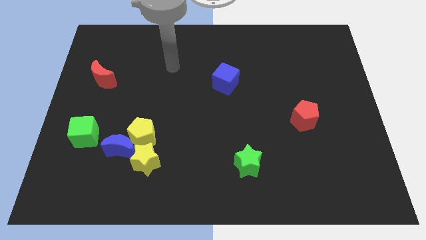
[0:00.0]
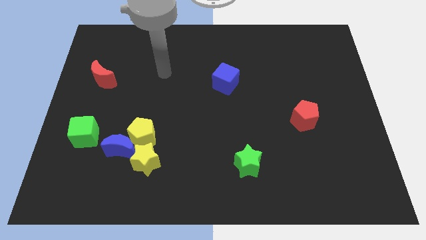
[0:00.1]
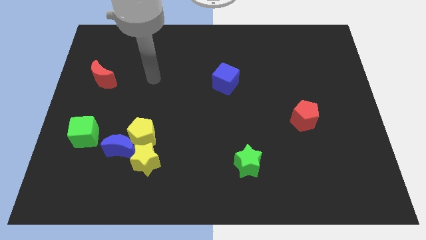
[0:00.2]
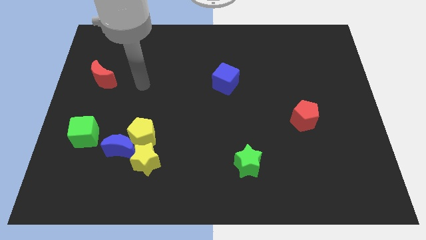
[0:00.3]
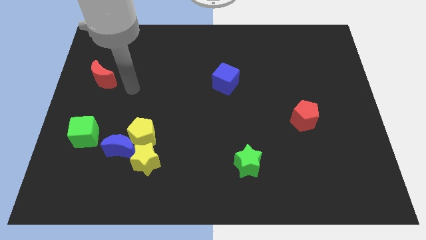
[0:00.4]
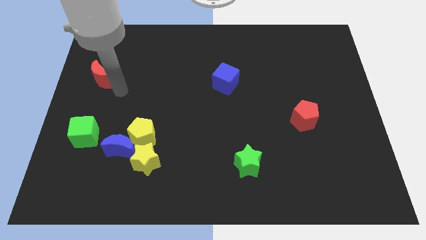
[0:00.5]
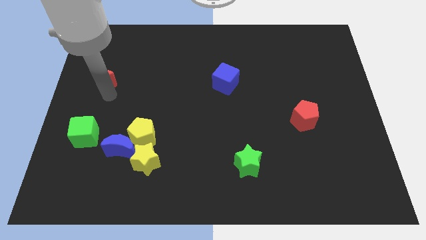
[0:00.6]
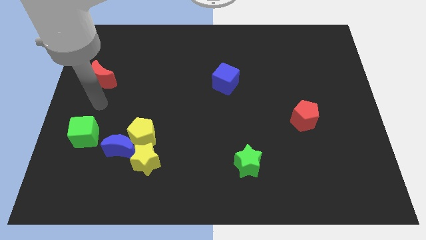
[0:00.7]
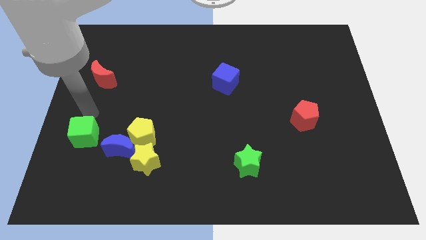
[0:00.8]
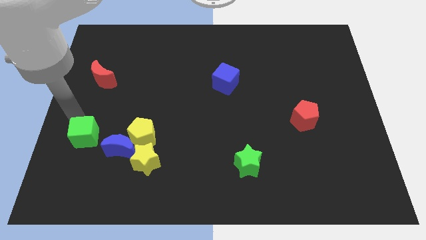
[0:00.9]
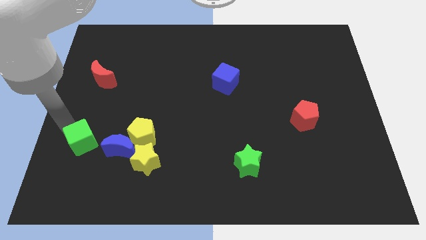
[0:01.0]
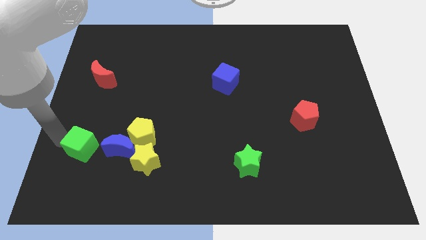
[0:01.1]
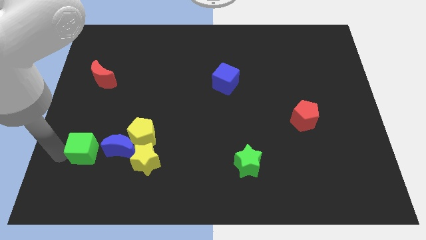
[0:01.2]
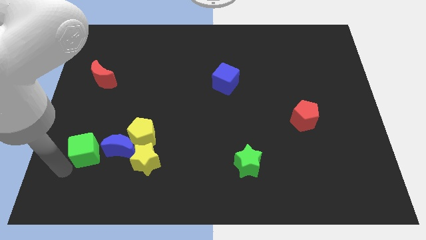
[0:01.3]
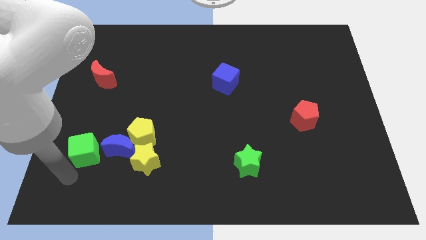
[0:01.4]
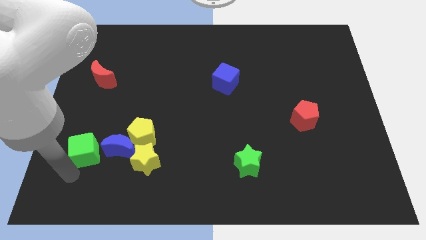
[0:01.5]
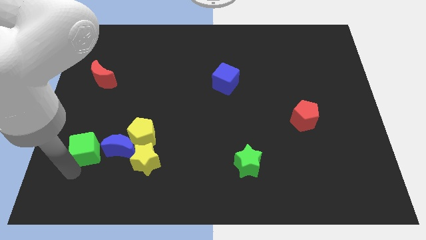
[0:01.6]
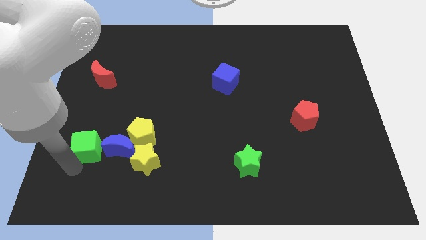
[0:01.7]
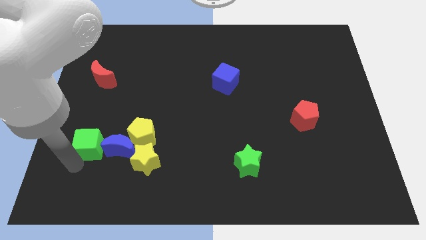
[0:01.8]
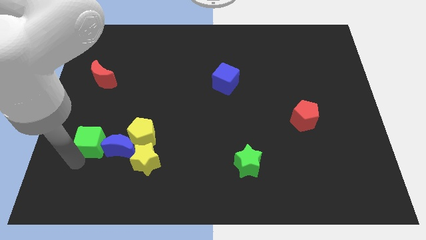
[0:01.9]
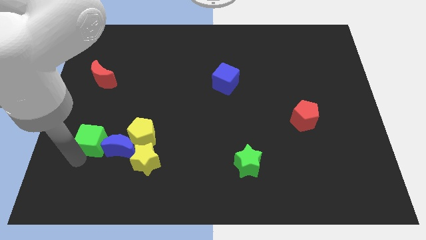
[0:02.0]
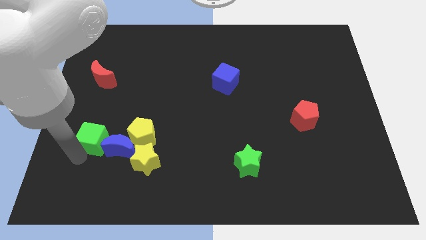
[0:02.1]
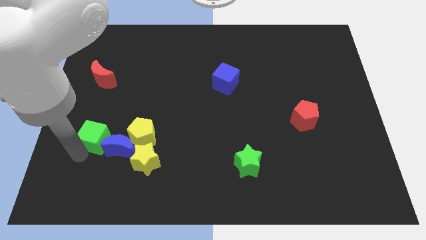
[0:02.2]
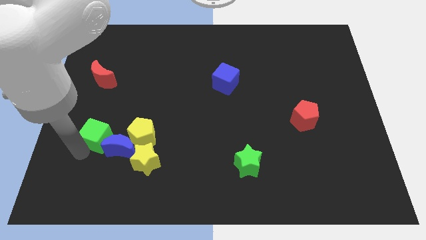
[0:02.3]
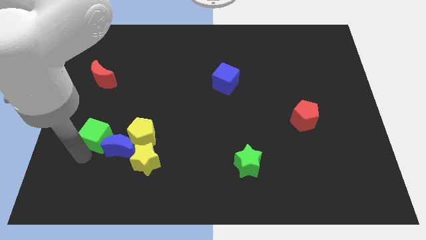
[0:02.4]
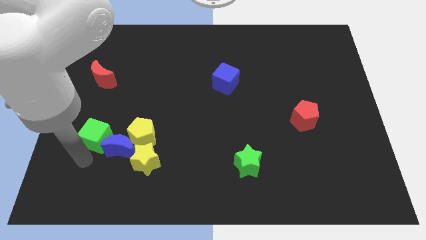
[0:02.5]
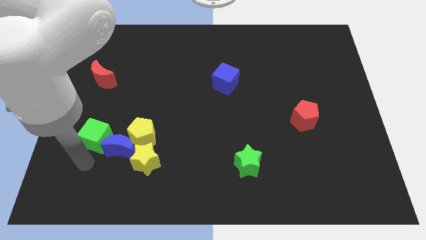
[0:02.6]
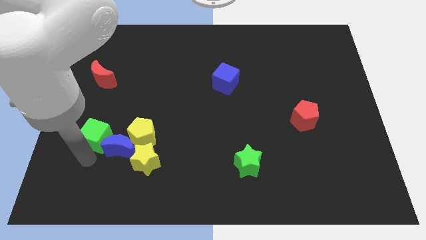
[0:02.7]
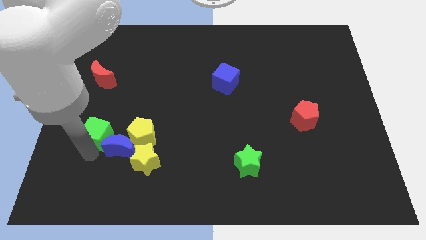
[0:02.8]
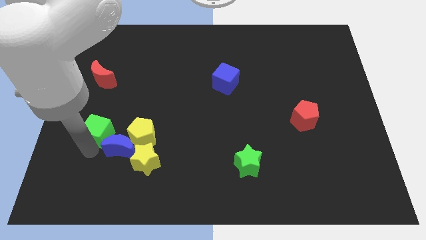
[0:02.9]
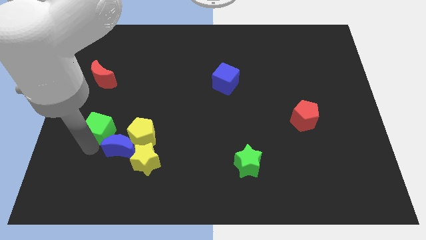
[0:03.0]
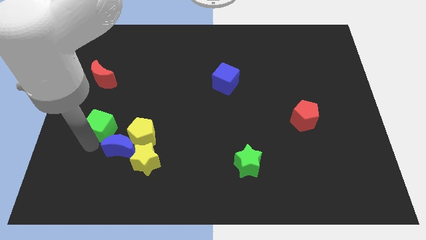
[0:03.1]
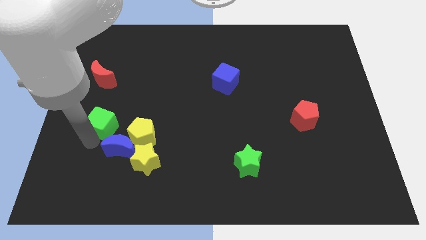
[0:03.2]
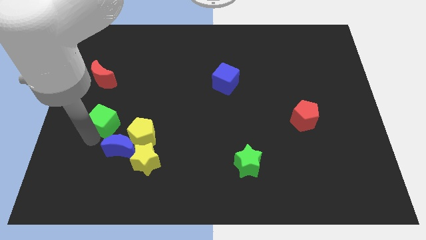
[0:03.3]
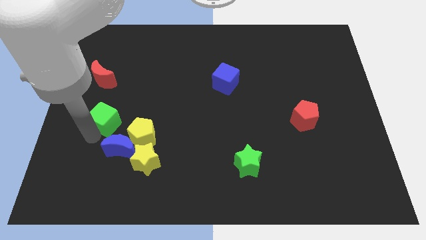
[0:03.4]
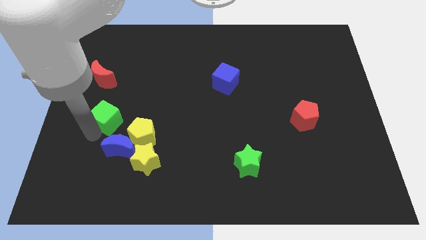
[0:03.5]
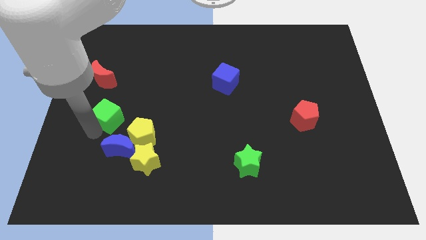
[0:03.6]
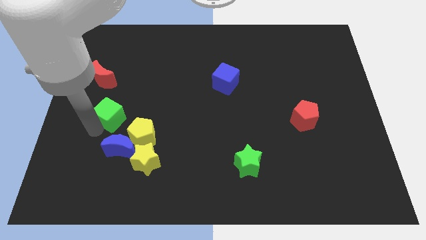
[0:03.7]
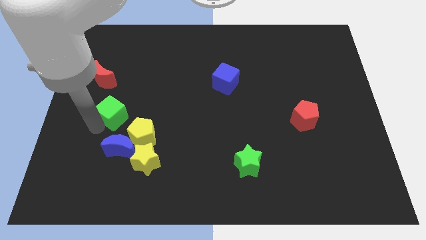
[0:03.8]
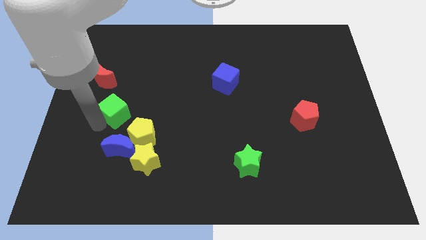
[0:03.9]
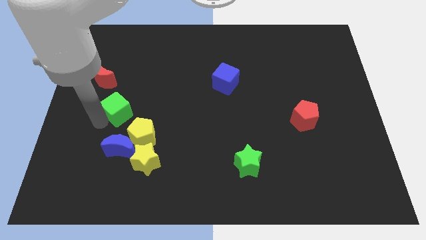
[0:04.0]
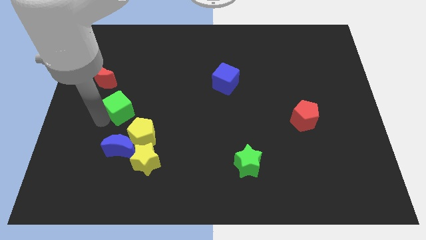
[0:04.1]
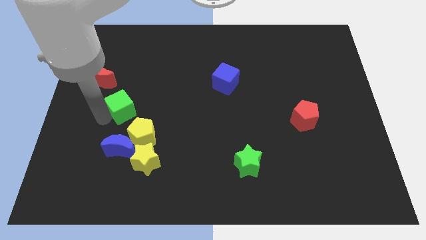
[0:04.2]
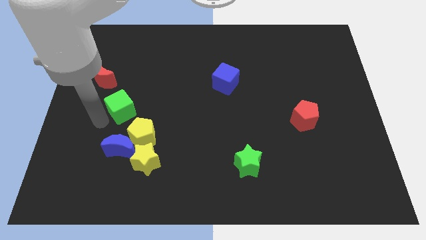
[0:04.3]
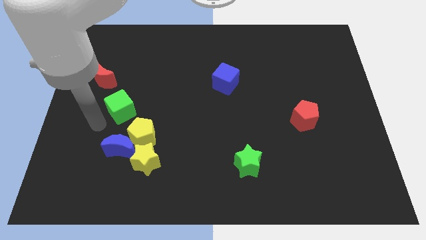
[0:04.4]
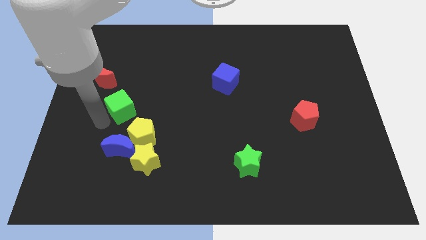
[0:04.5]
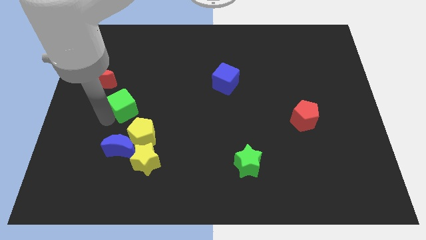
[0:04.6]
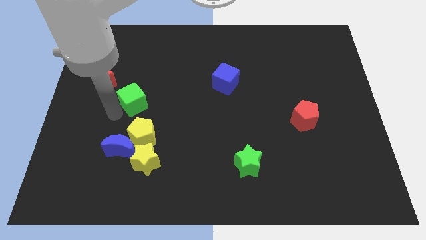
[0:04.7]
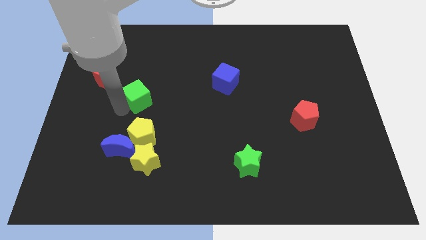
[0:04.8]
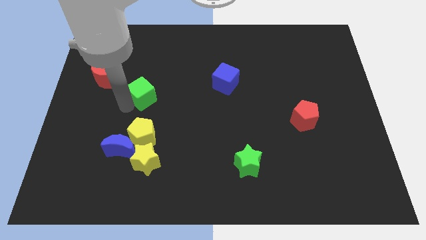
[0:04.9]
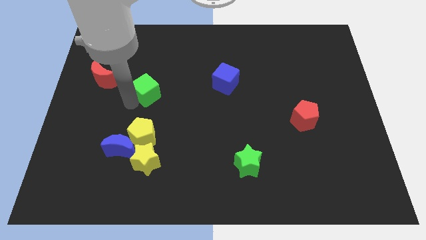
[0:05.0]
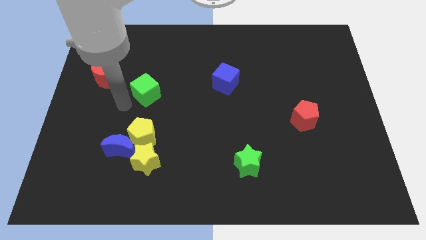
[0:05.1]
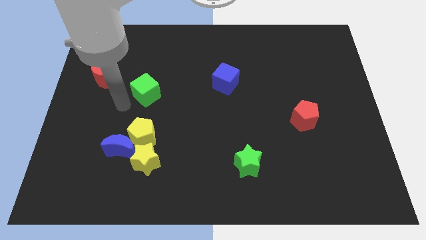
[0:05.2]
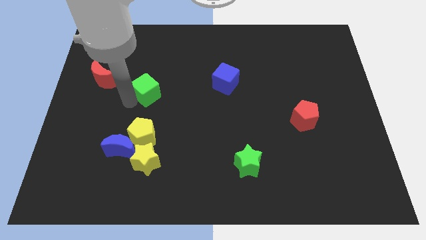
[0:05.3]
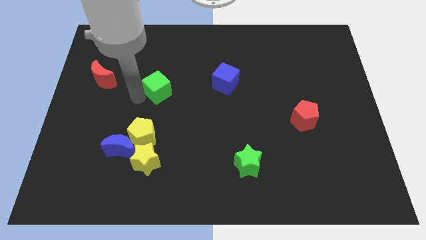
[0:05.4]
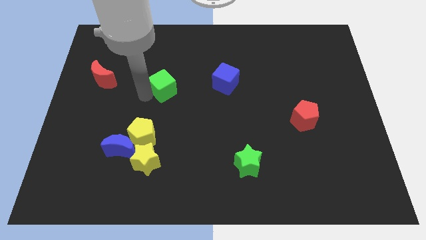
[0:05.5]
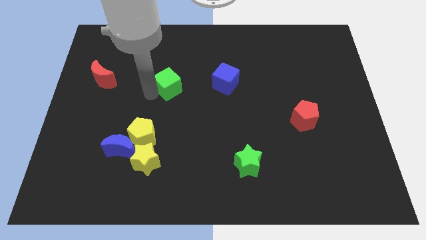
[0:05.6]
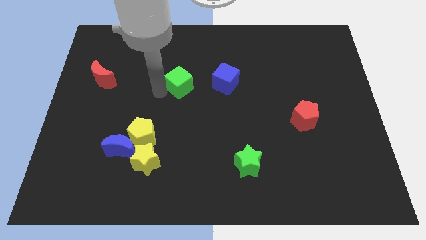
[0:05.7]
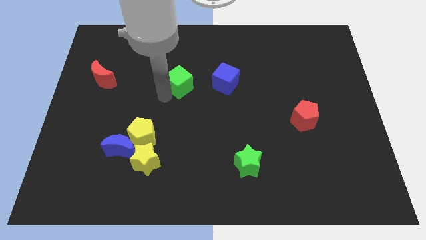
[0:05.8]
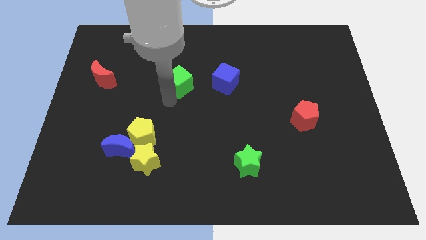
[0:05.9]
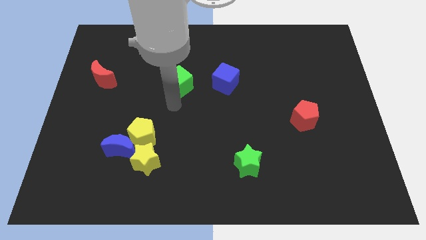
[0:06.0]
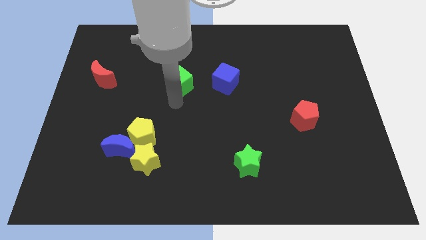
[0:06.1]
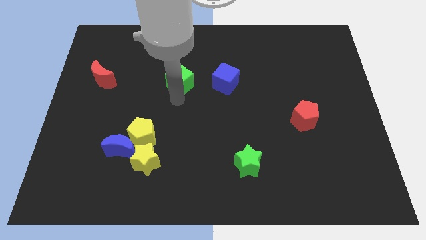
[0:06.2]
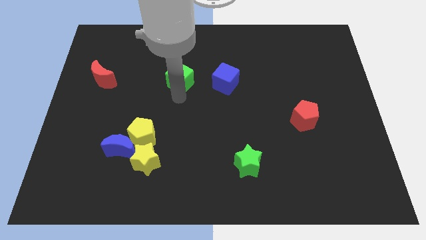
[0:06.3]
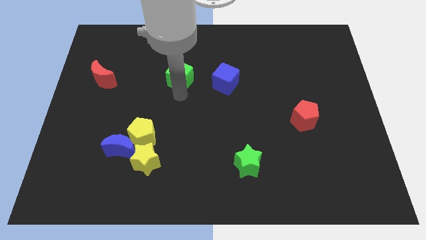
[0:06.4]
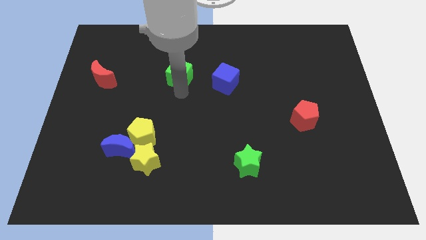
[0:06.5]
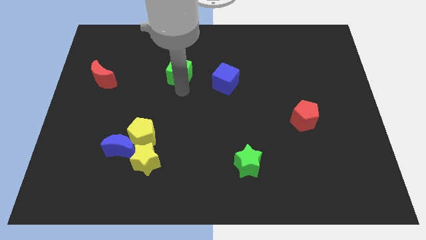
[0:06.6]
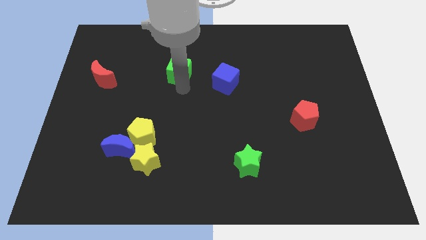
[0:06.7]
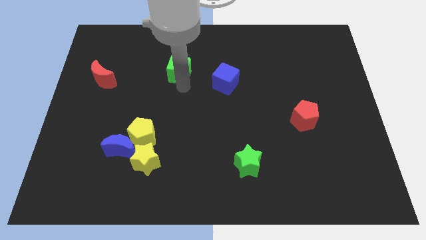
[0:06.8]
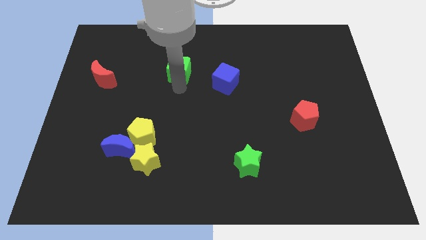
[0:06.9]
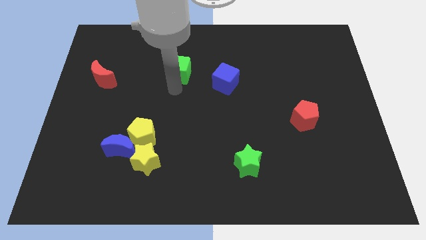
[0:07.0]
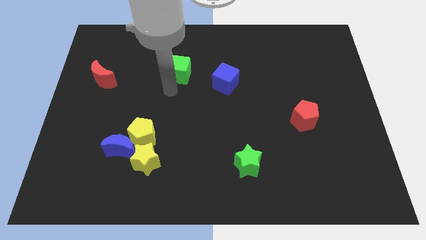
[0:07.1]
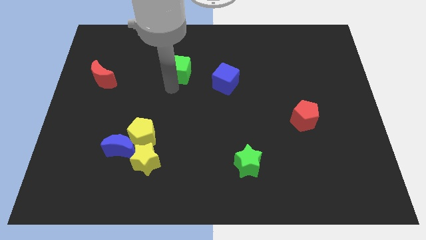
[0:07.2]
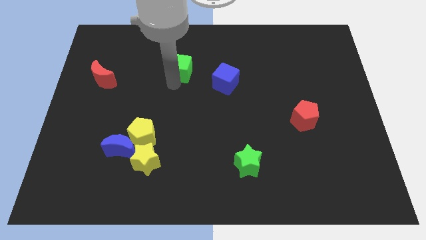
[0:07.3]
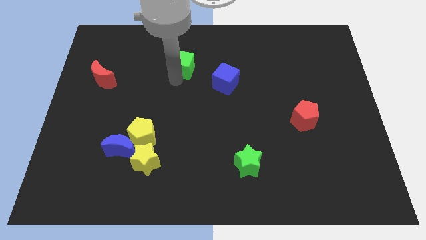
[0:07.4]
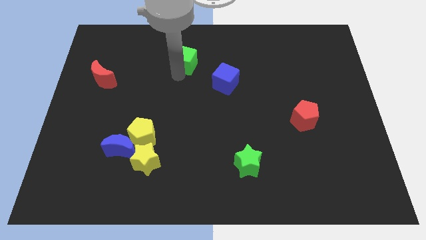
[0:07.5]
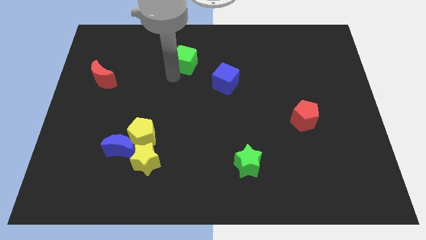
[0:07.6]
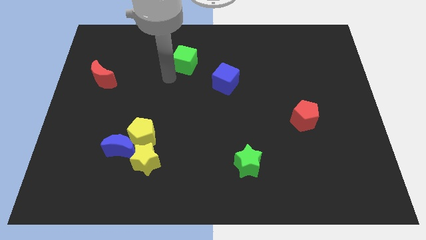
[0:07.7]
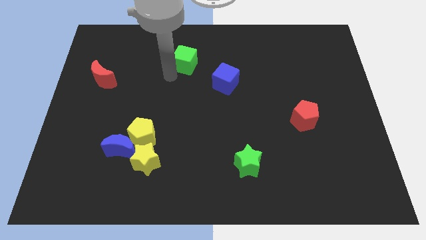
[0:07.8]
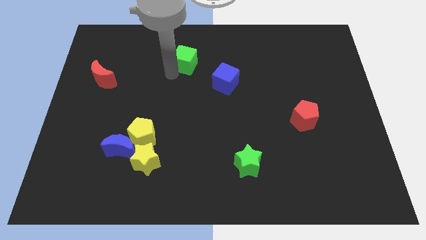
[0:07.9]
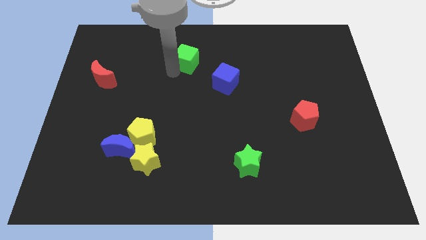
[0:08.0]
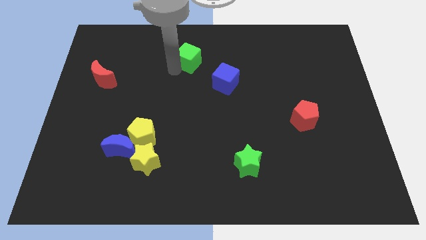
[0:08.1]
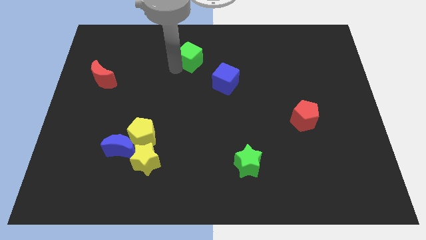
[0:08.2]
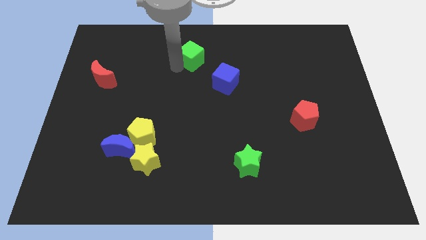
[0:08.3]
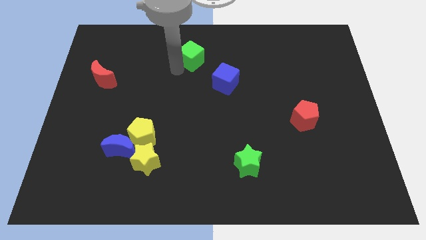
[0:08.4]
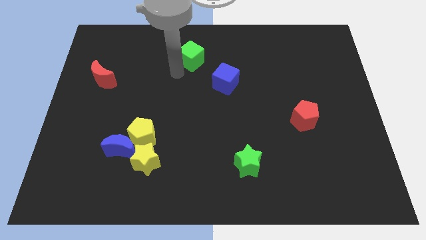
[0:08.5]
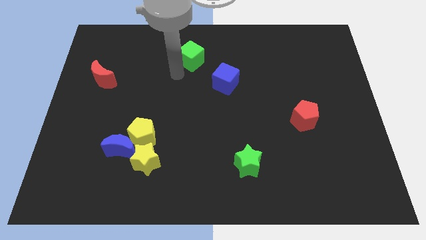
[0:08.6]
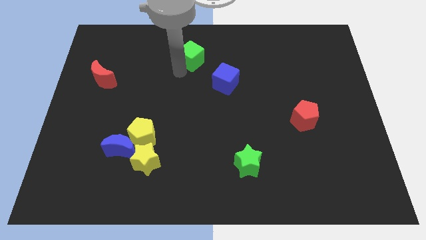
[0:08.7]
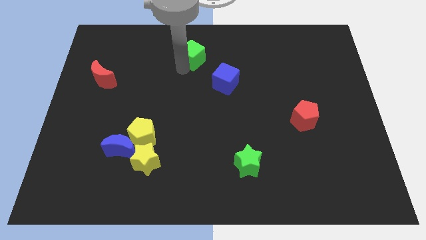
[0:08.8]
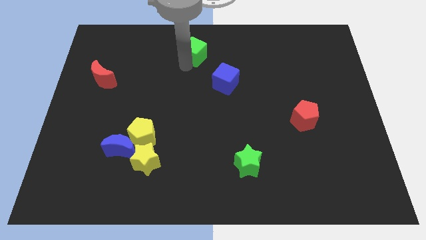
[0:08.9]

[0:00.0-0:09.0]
move the green cube to the top

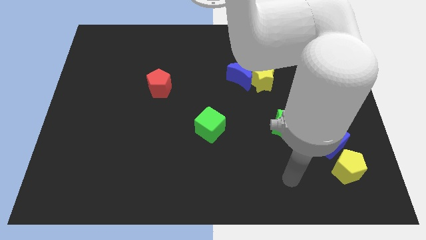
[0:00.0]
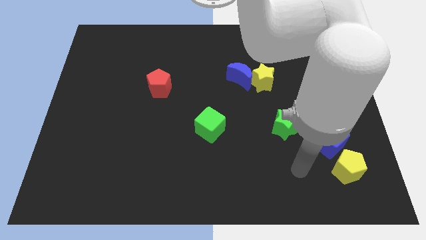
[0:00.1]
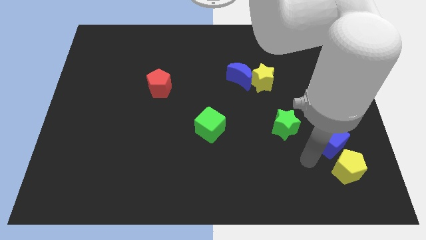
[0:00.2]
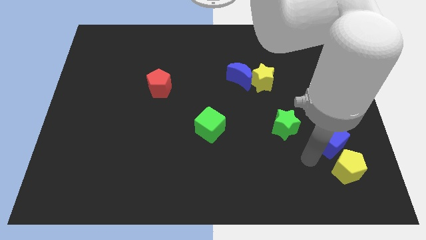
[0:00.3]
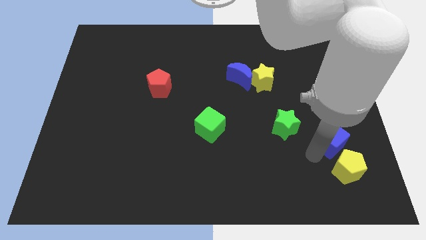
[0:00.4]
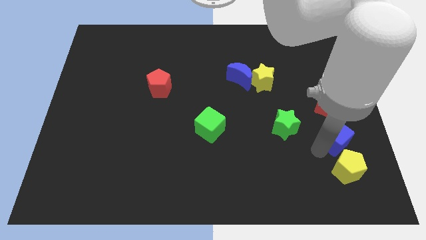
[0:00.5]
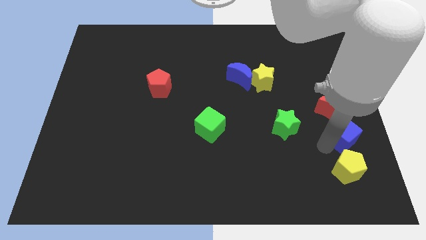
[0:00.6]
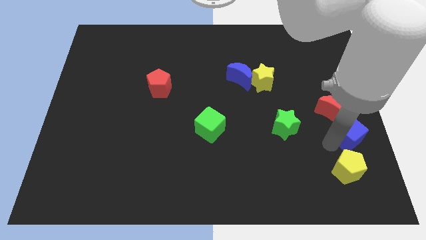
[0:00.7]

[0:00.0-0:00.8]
push the blue cube to the center right
